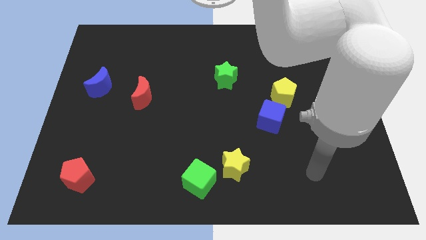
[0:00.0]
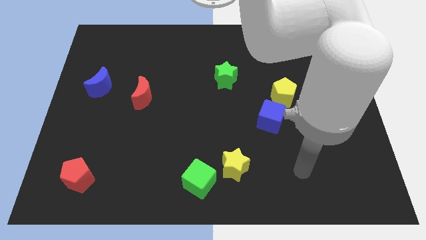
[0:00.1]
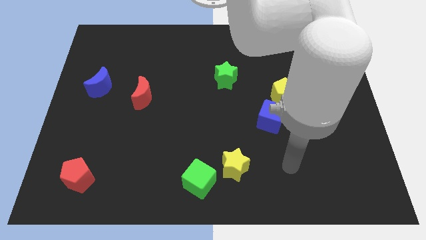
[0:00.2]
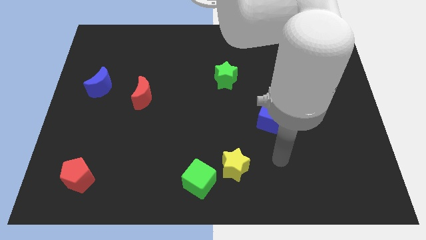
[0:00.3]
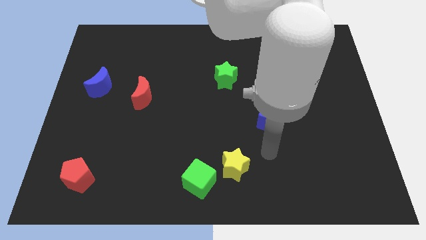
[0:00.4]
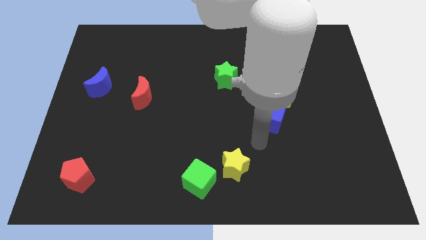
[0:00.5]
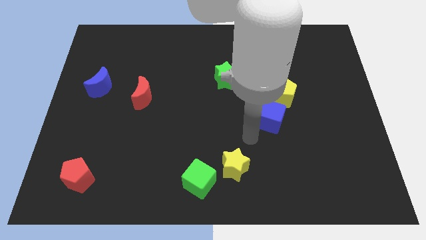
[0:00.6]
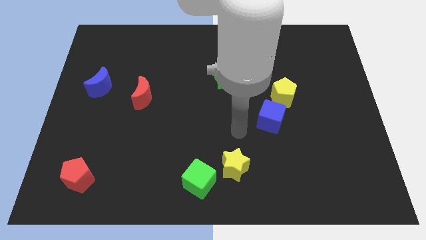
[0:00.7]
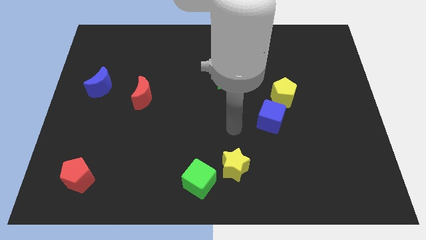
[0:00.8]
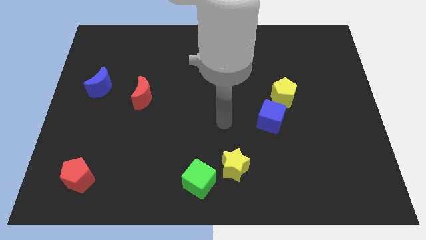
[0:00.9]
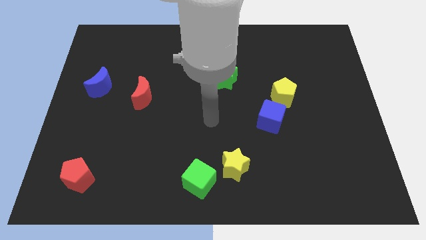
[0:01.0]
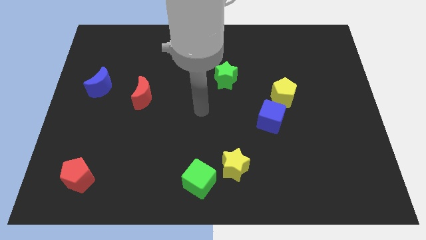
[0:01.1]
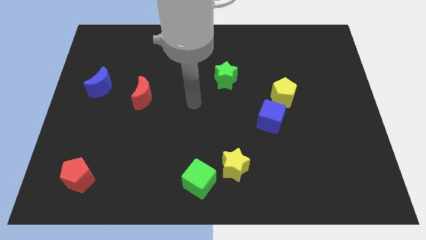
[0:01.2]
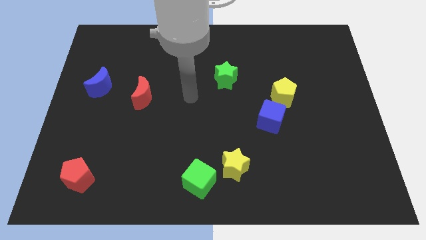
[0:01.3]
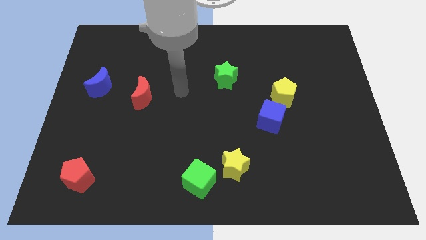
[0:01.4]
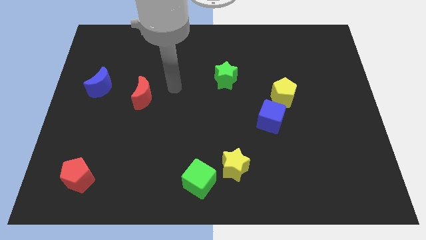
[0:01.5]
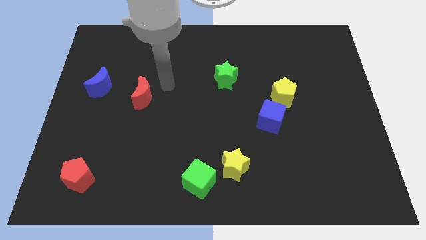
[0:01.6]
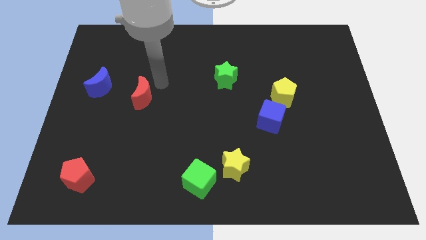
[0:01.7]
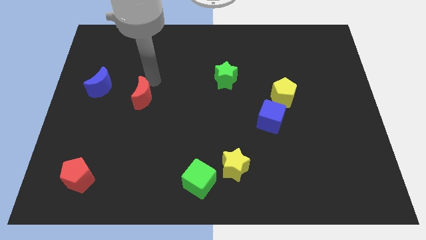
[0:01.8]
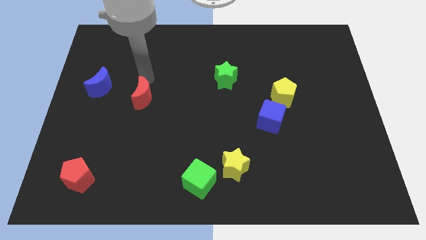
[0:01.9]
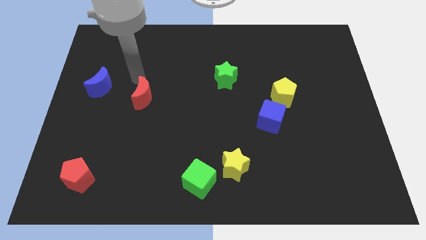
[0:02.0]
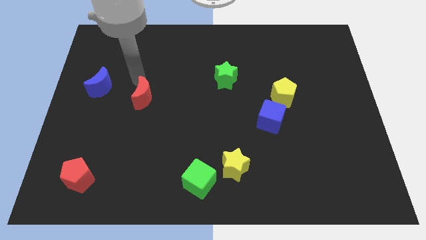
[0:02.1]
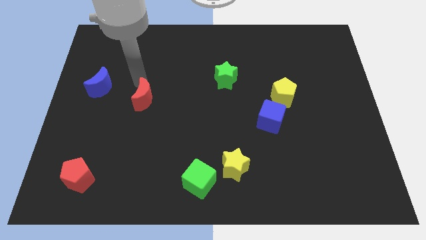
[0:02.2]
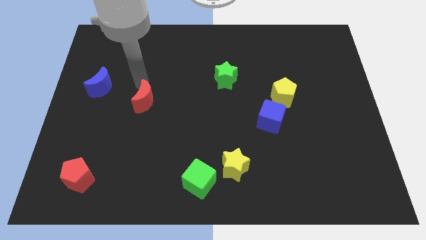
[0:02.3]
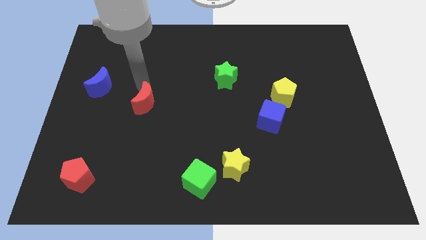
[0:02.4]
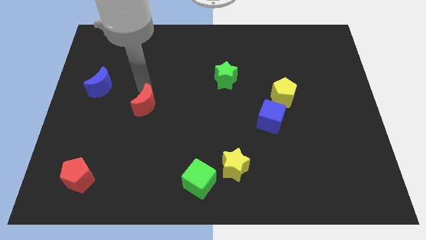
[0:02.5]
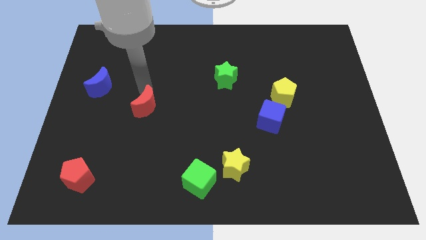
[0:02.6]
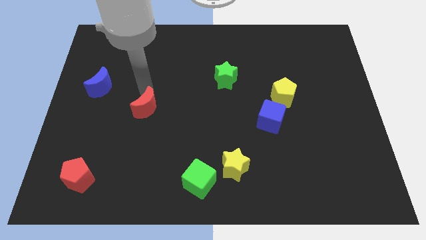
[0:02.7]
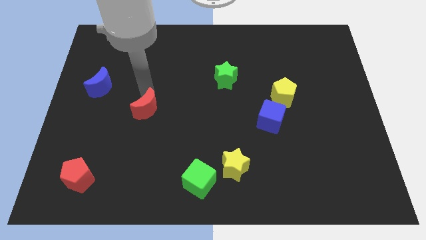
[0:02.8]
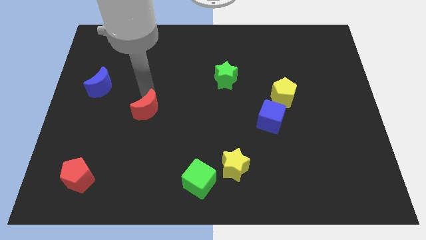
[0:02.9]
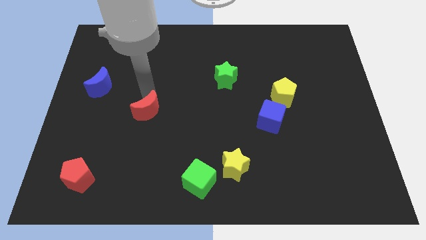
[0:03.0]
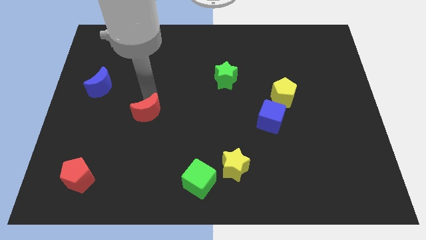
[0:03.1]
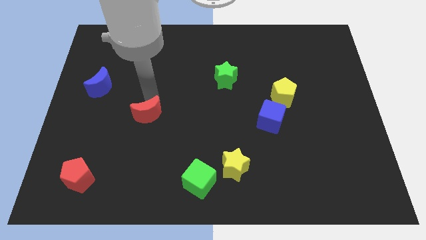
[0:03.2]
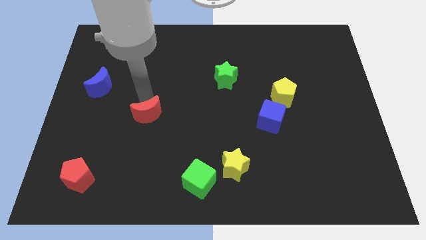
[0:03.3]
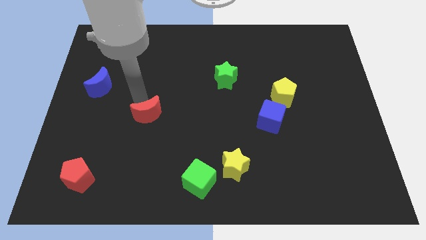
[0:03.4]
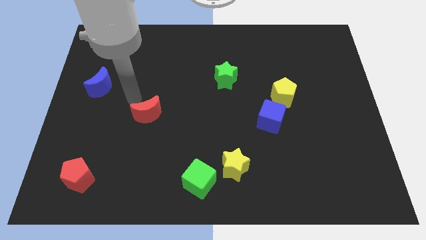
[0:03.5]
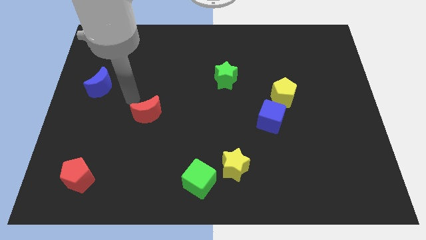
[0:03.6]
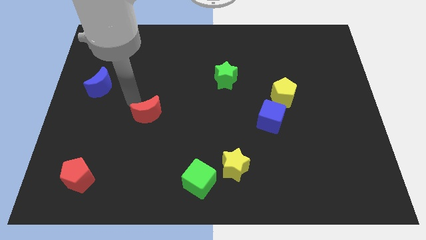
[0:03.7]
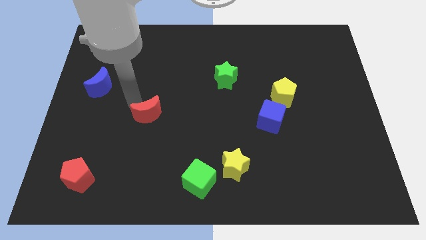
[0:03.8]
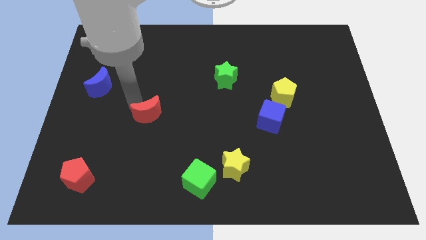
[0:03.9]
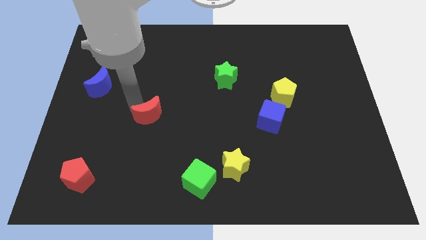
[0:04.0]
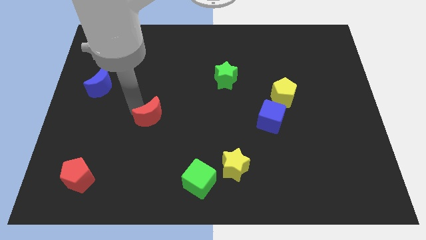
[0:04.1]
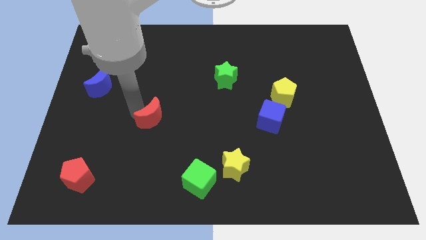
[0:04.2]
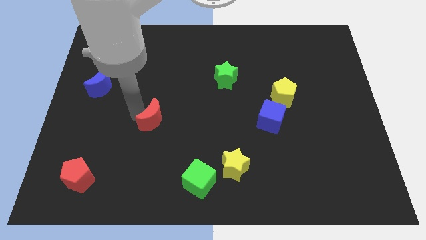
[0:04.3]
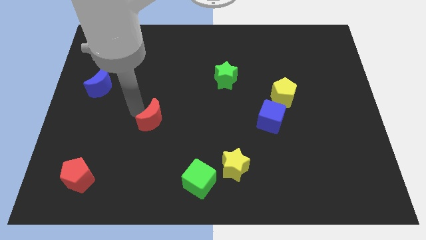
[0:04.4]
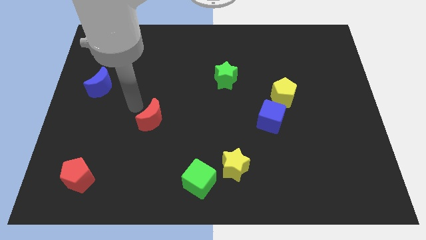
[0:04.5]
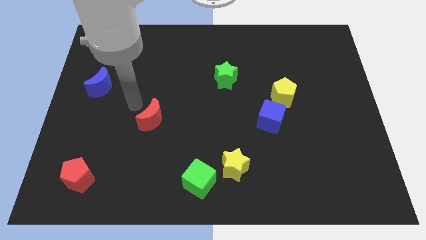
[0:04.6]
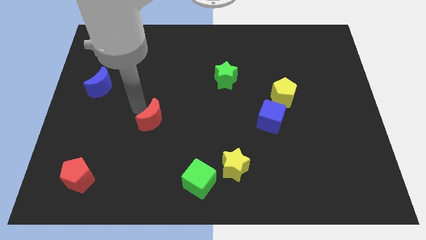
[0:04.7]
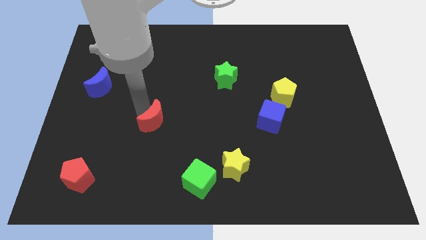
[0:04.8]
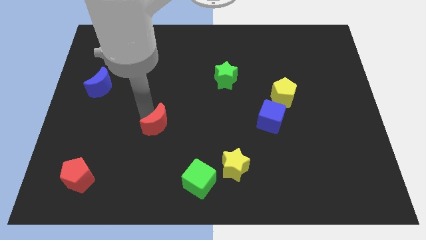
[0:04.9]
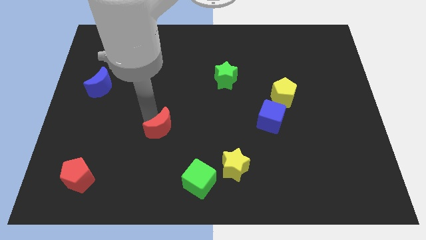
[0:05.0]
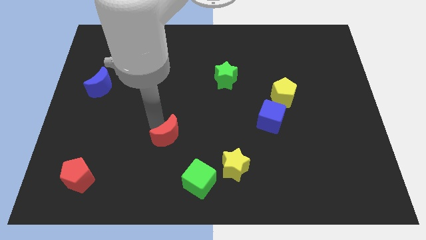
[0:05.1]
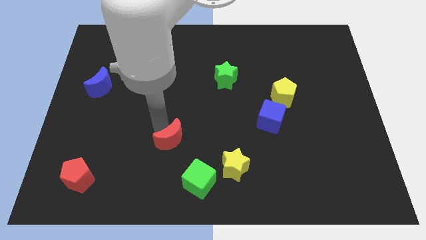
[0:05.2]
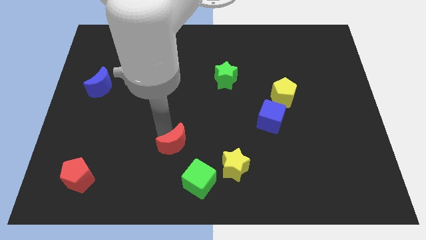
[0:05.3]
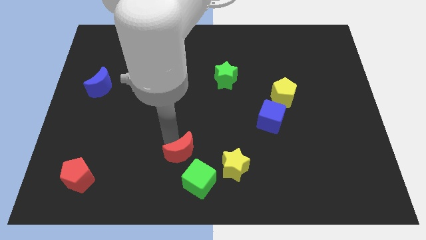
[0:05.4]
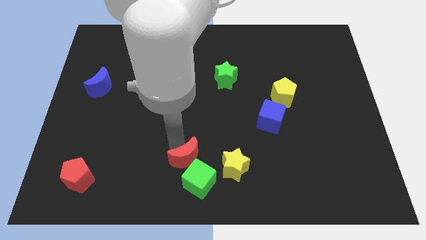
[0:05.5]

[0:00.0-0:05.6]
put the red moon to the green cube

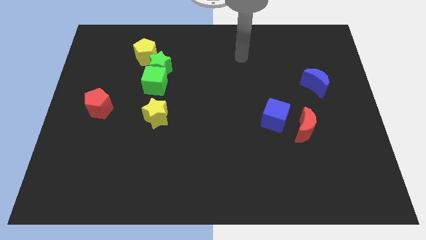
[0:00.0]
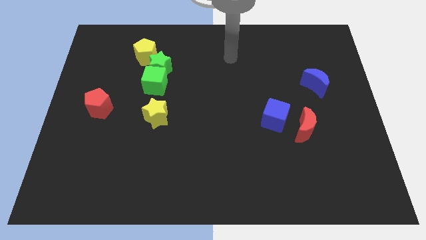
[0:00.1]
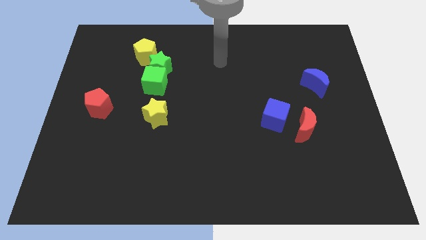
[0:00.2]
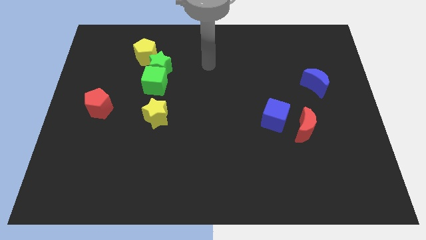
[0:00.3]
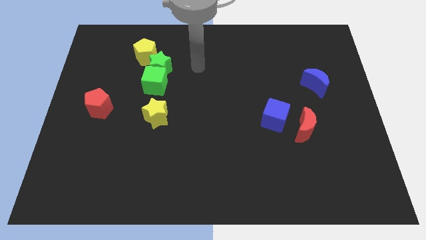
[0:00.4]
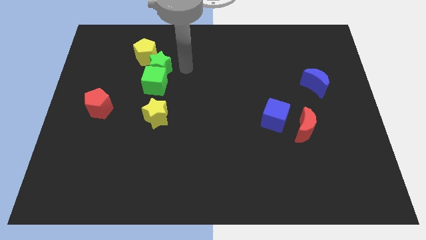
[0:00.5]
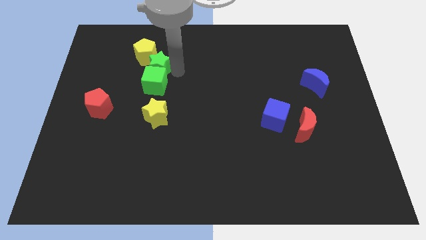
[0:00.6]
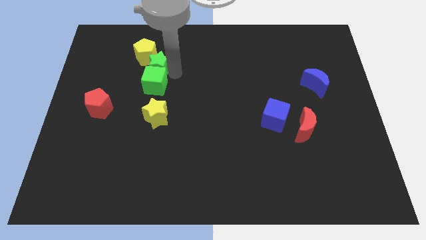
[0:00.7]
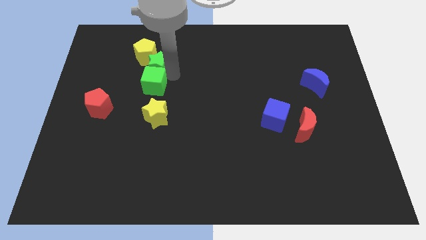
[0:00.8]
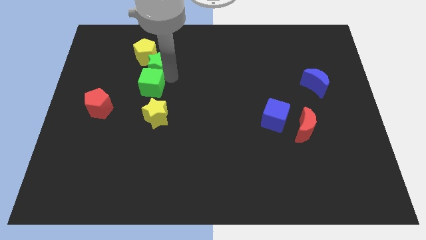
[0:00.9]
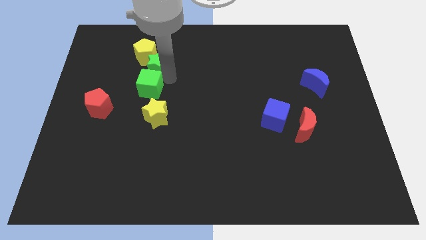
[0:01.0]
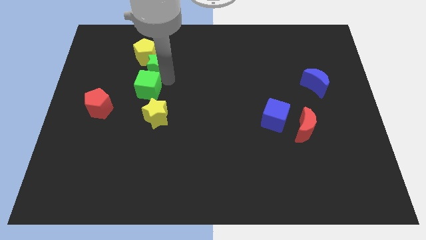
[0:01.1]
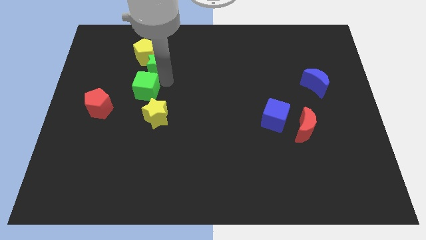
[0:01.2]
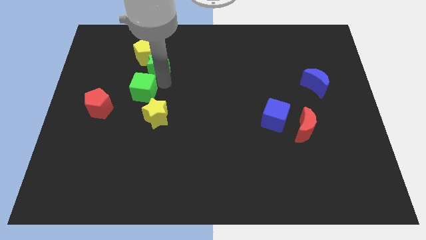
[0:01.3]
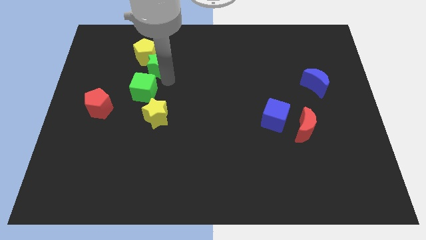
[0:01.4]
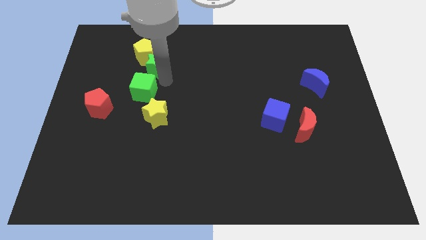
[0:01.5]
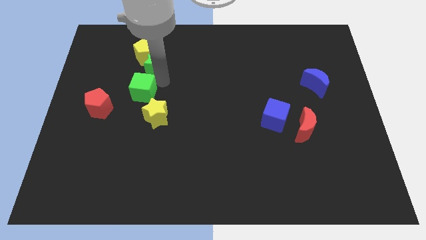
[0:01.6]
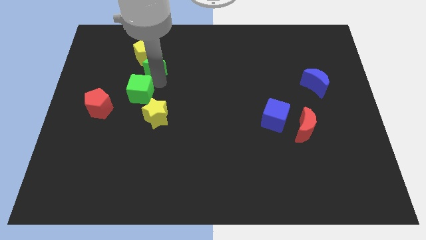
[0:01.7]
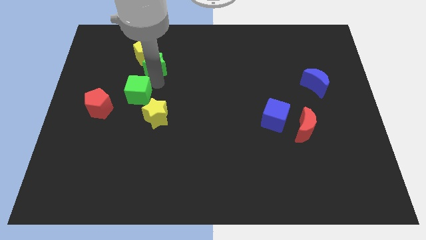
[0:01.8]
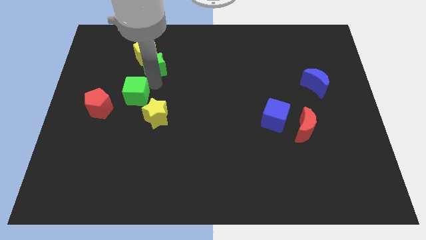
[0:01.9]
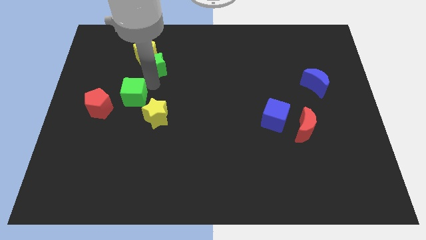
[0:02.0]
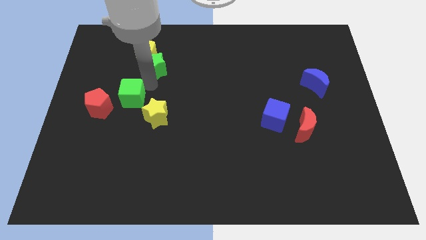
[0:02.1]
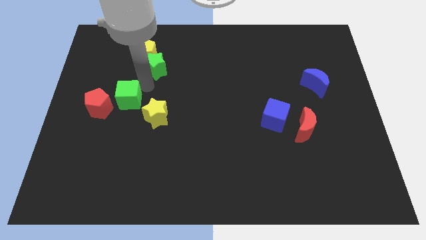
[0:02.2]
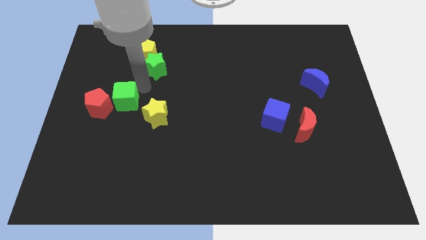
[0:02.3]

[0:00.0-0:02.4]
move the green cube next to the red pentagon
